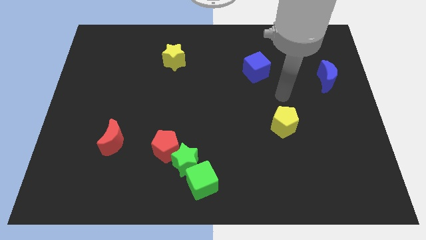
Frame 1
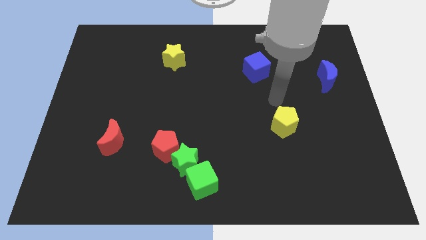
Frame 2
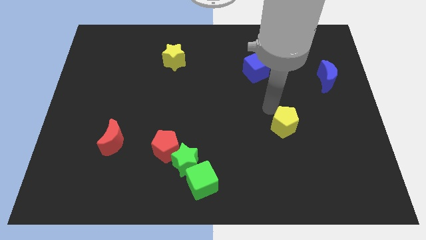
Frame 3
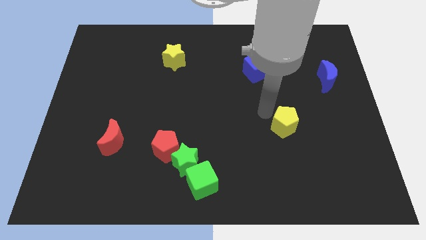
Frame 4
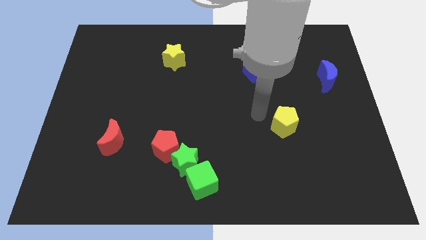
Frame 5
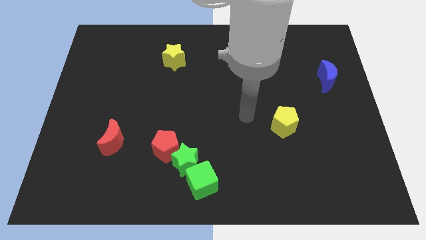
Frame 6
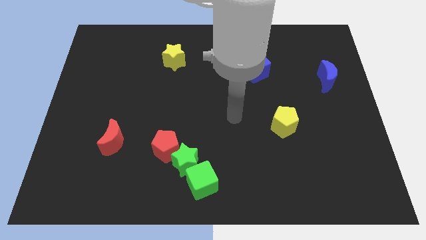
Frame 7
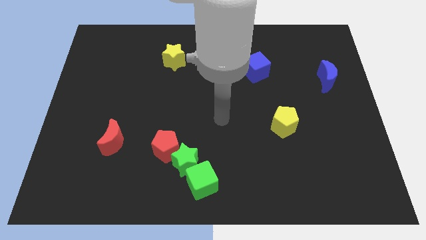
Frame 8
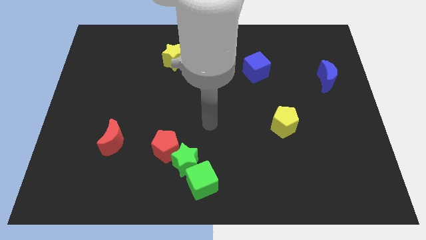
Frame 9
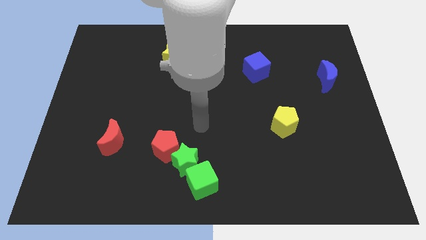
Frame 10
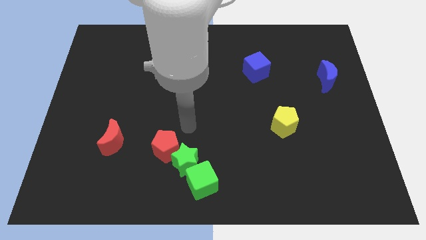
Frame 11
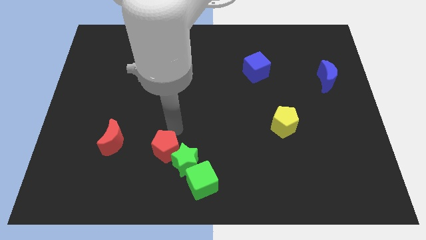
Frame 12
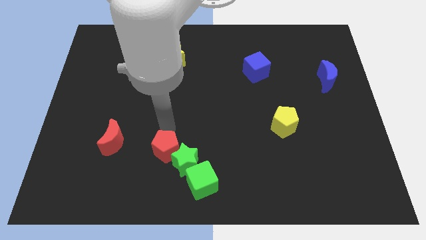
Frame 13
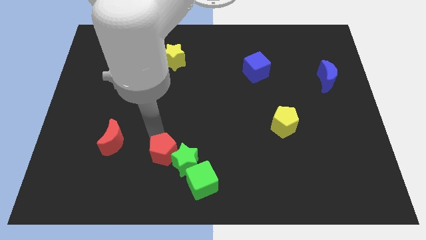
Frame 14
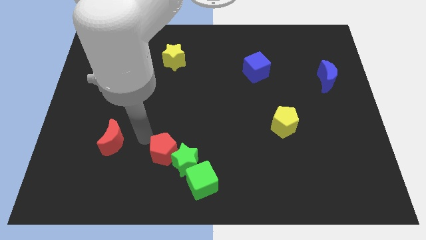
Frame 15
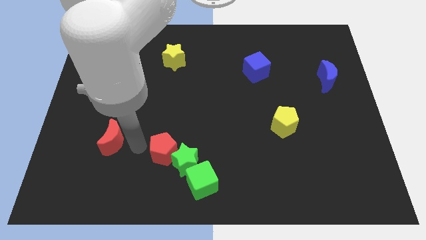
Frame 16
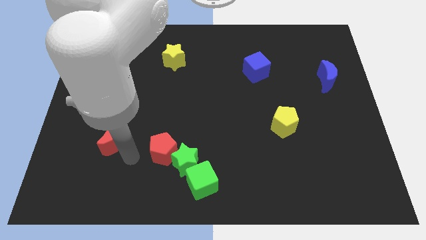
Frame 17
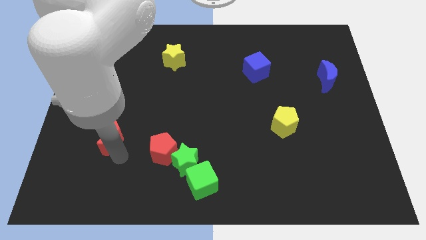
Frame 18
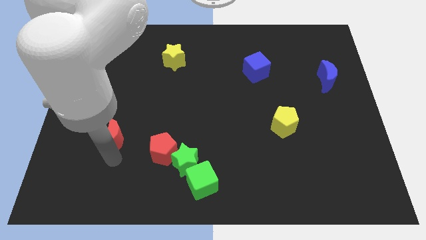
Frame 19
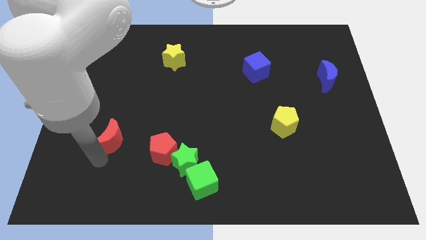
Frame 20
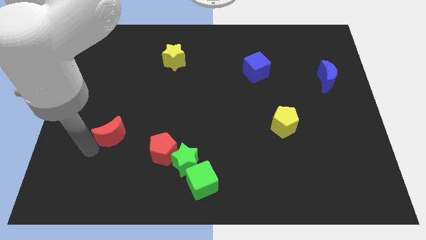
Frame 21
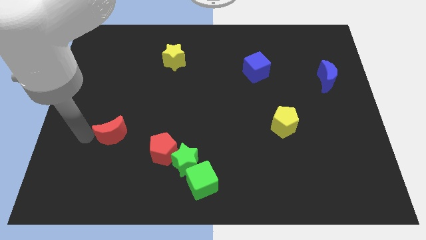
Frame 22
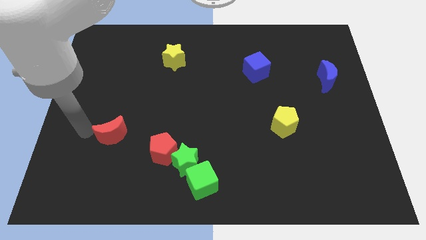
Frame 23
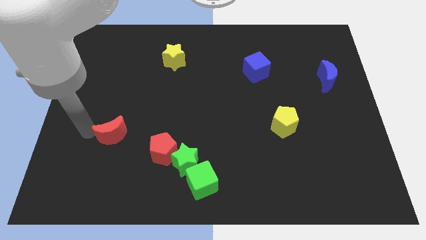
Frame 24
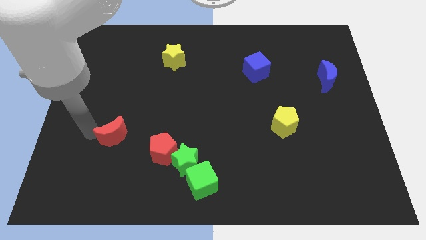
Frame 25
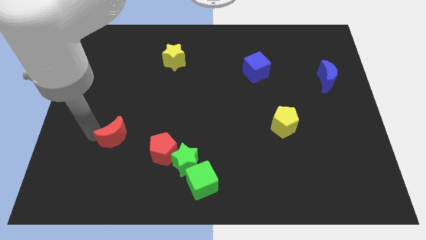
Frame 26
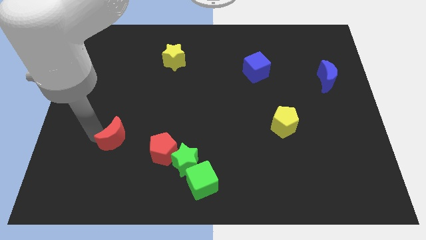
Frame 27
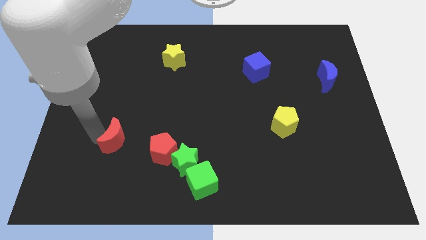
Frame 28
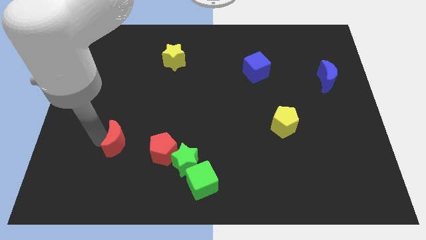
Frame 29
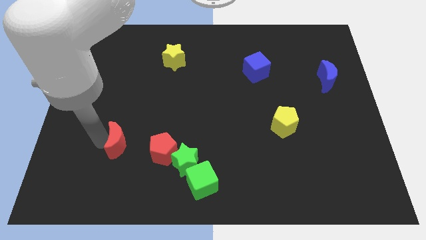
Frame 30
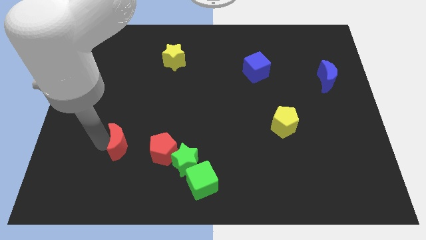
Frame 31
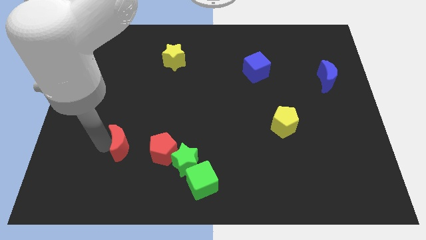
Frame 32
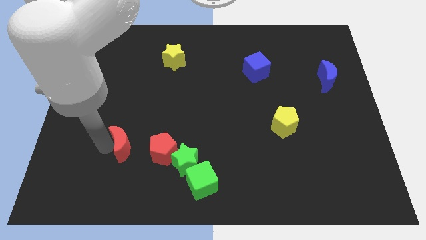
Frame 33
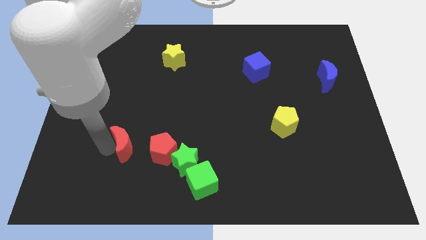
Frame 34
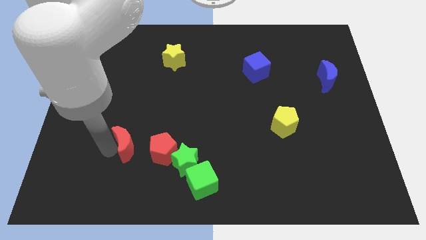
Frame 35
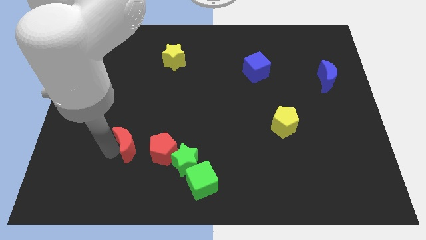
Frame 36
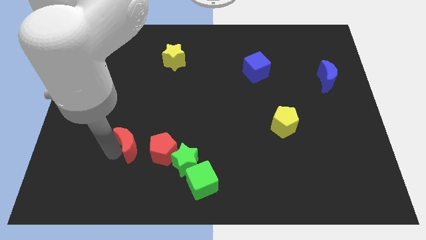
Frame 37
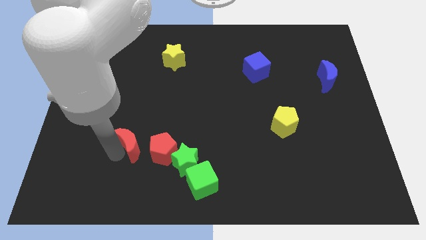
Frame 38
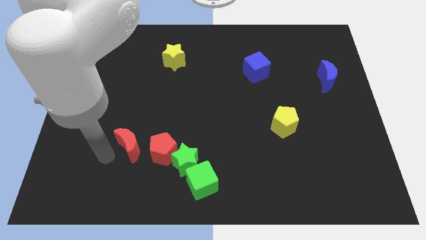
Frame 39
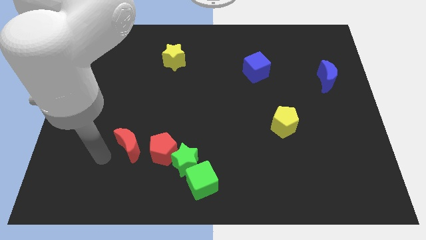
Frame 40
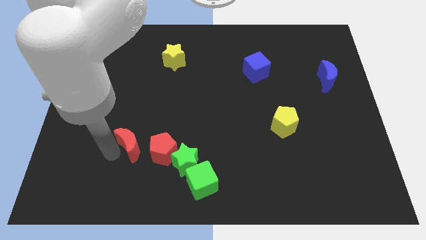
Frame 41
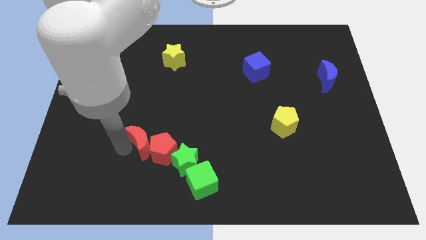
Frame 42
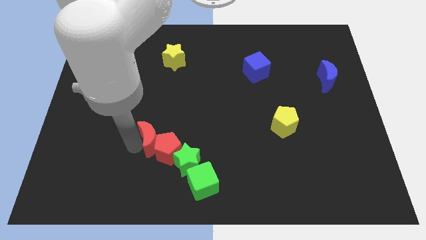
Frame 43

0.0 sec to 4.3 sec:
push the red moon a little to the right

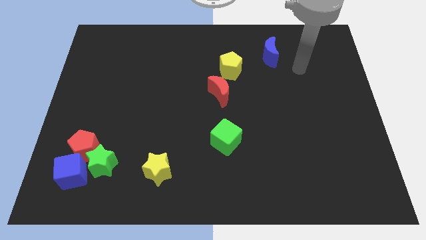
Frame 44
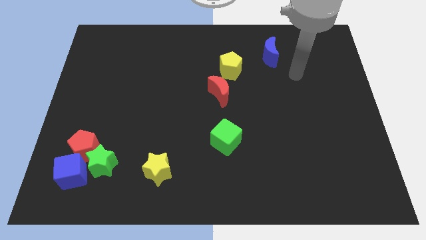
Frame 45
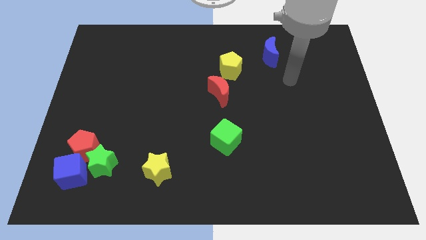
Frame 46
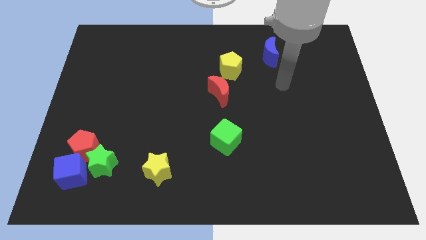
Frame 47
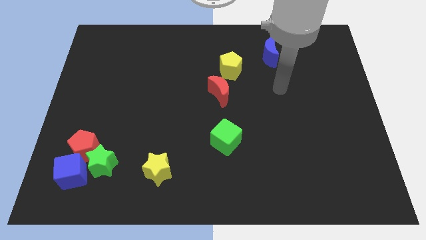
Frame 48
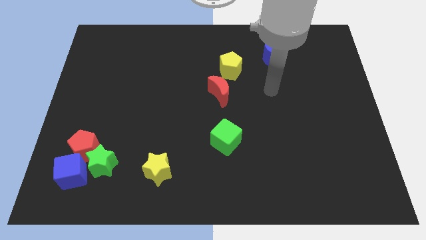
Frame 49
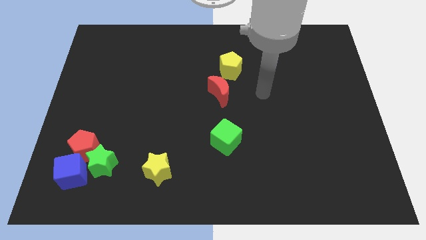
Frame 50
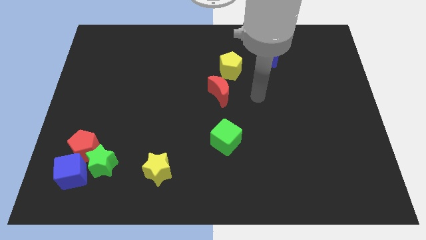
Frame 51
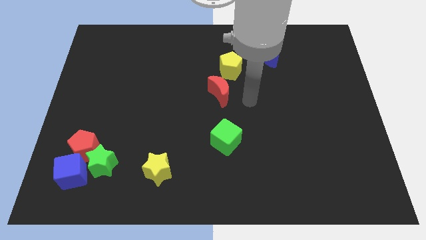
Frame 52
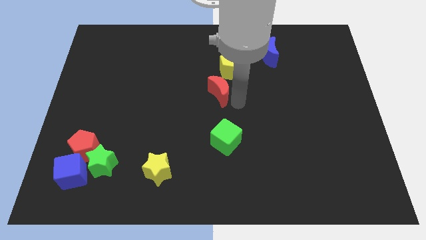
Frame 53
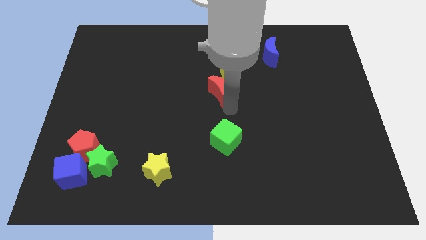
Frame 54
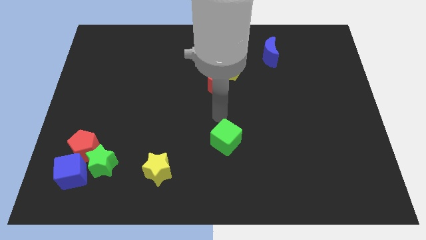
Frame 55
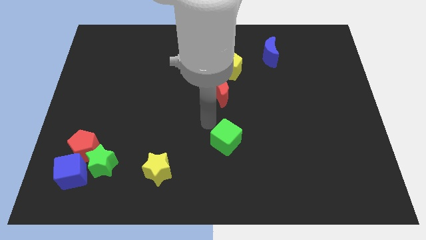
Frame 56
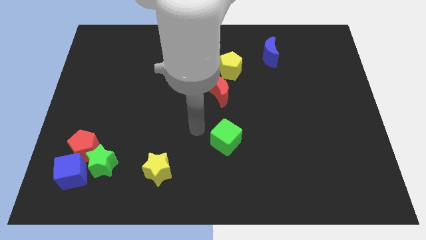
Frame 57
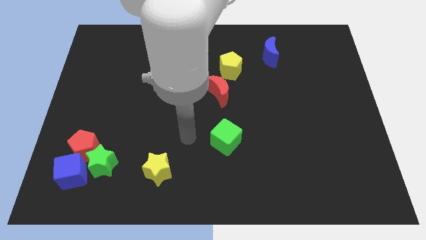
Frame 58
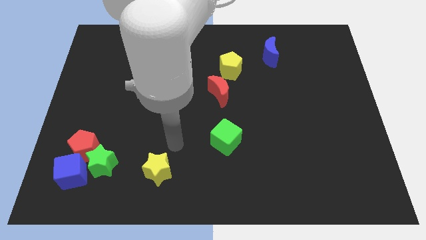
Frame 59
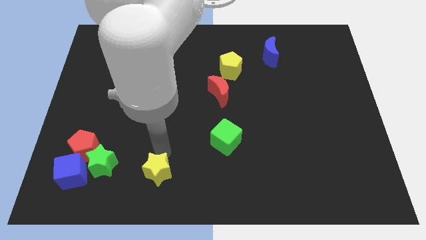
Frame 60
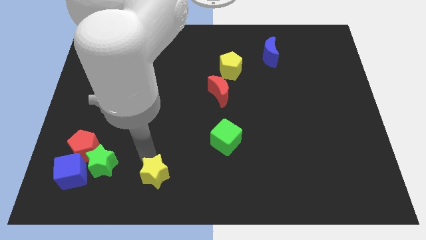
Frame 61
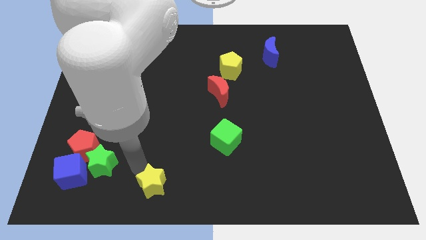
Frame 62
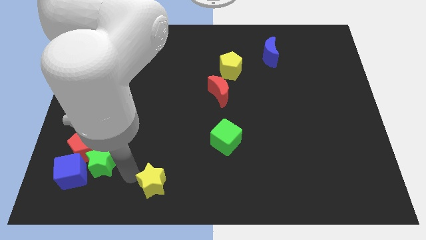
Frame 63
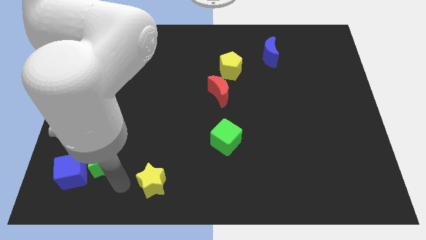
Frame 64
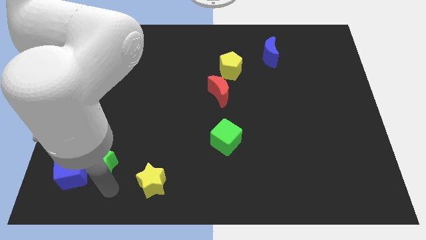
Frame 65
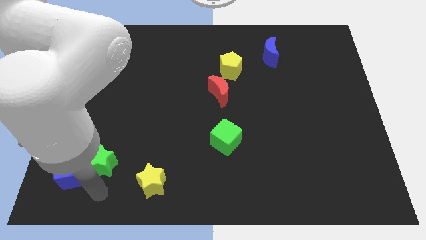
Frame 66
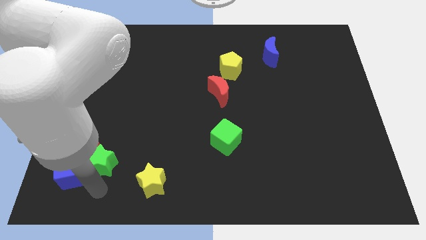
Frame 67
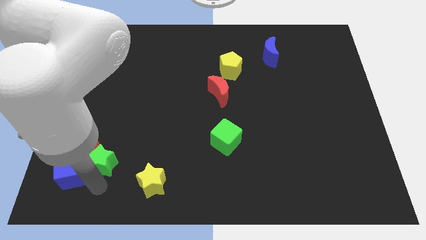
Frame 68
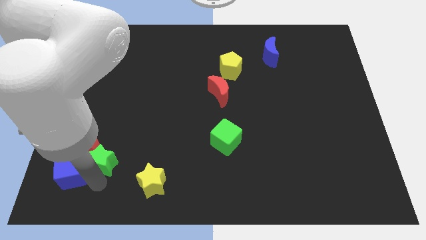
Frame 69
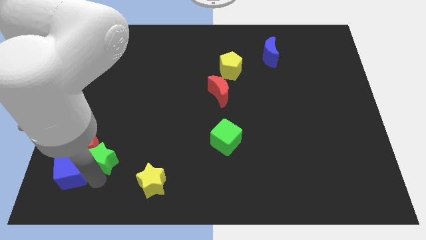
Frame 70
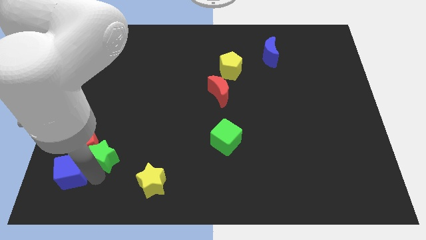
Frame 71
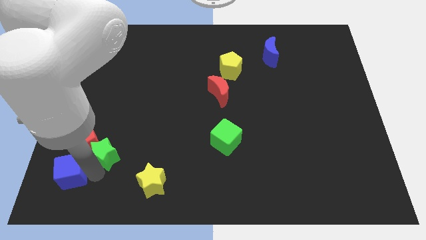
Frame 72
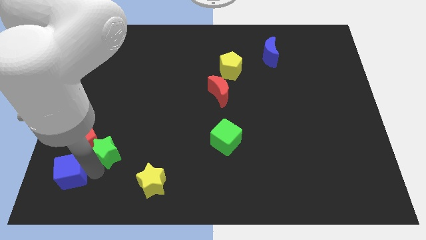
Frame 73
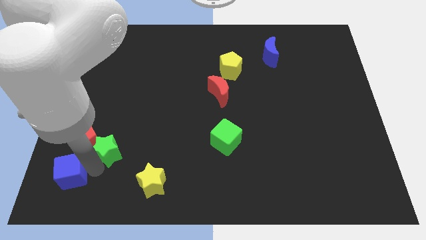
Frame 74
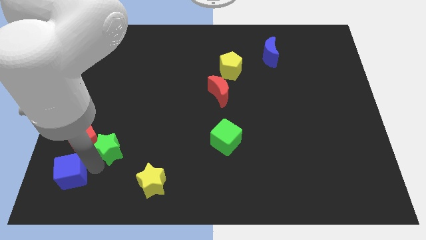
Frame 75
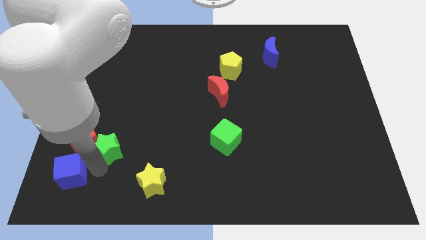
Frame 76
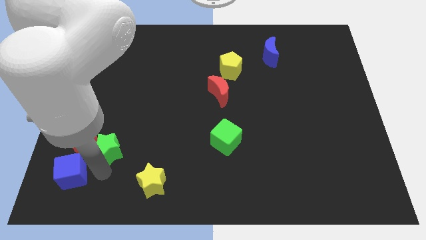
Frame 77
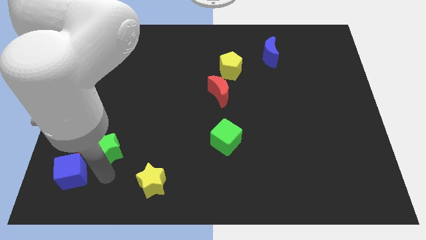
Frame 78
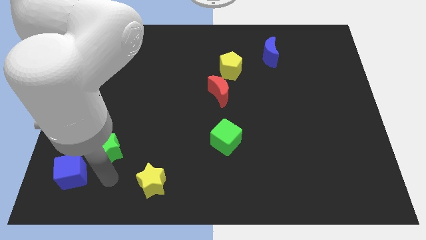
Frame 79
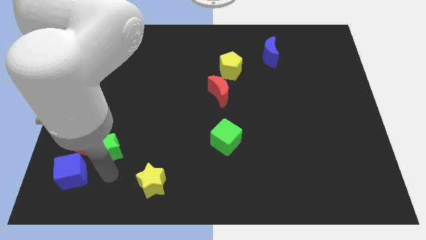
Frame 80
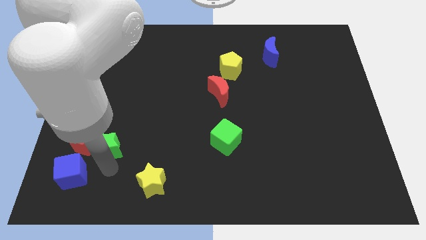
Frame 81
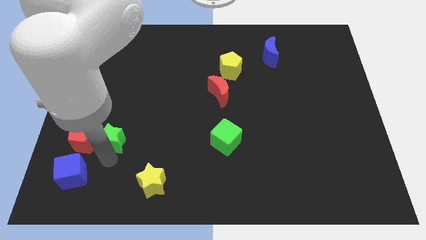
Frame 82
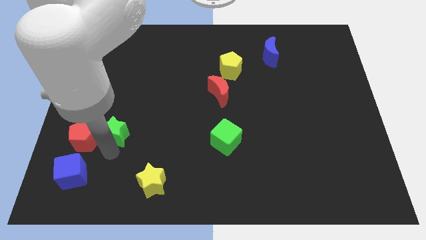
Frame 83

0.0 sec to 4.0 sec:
move the green star upwards a little bit
